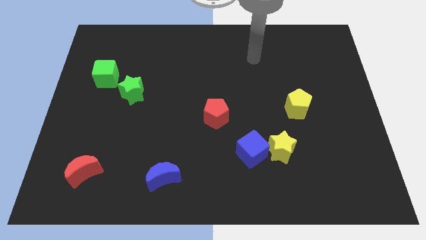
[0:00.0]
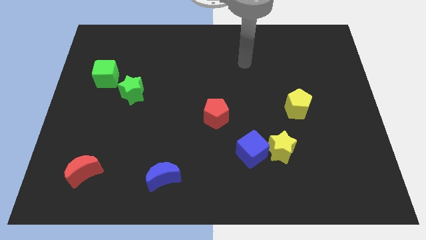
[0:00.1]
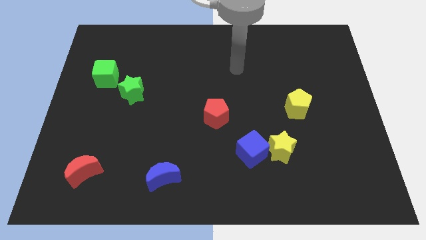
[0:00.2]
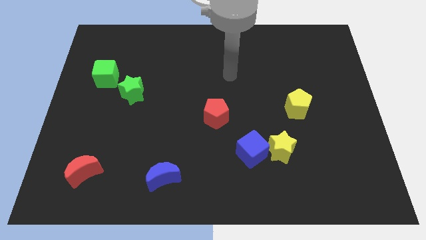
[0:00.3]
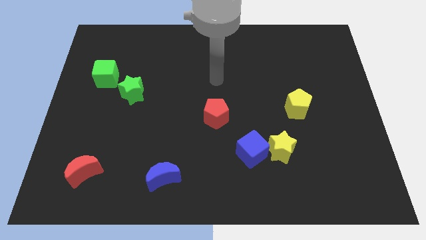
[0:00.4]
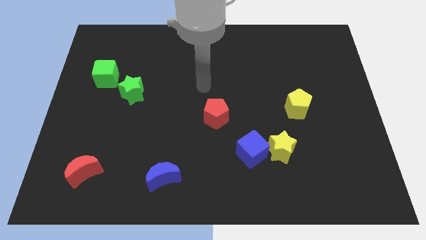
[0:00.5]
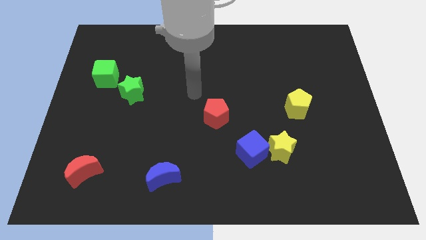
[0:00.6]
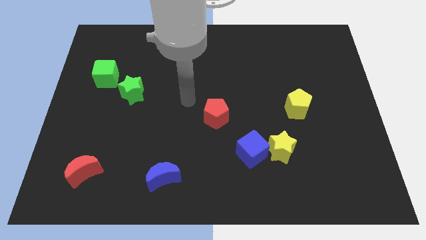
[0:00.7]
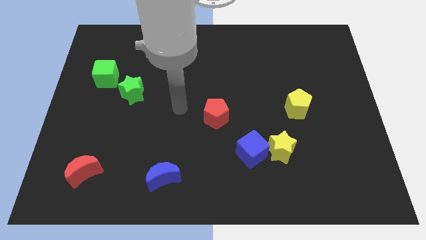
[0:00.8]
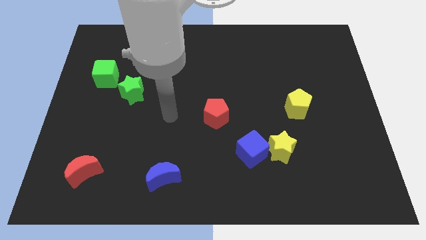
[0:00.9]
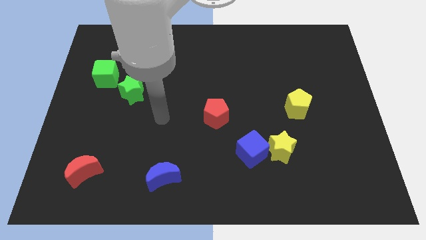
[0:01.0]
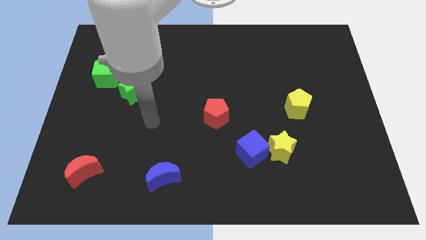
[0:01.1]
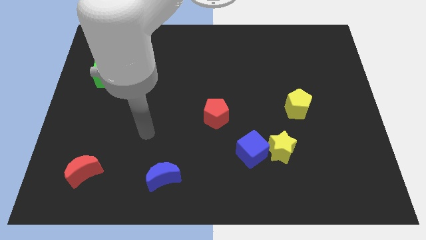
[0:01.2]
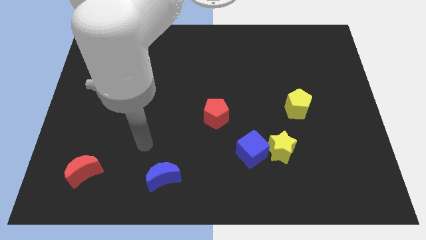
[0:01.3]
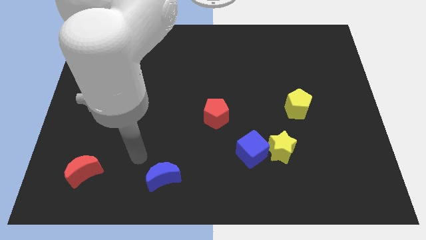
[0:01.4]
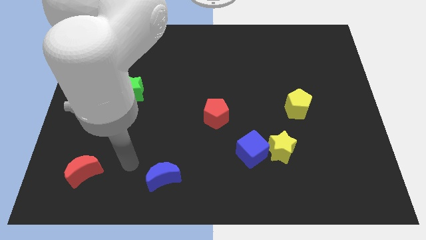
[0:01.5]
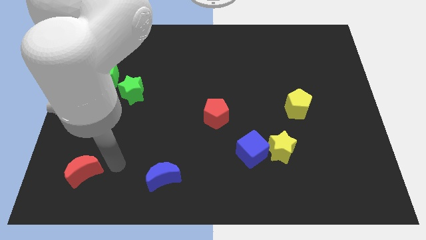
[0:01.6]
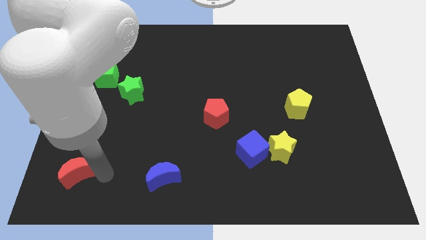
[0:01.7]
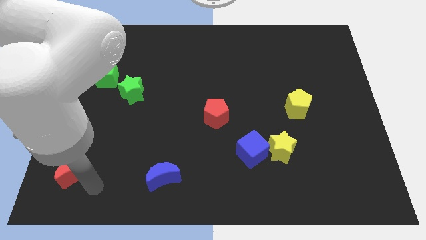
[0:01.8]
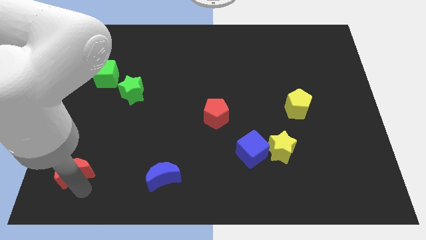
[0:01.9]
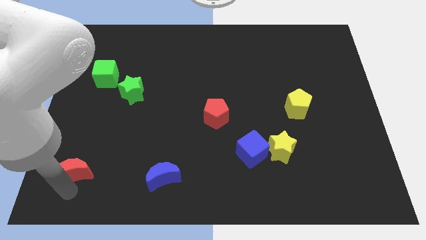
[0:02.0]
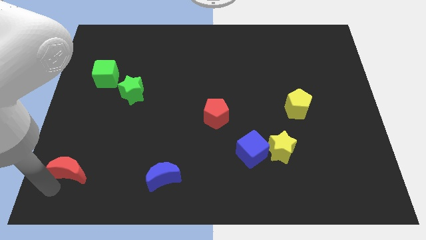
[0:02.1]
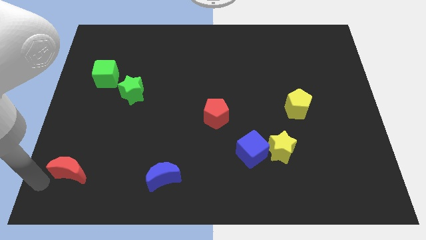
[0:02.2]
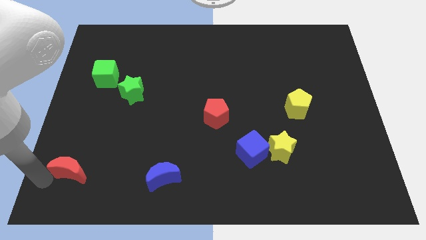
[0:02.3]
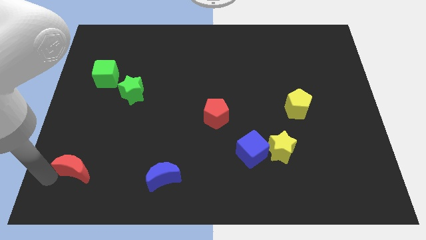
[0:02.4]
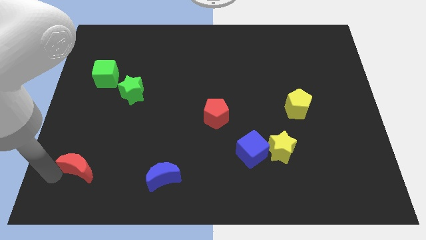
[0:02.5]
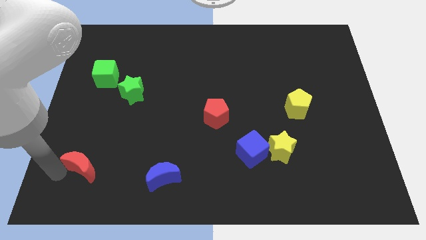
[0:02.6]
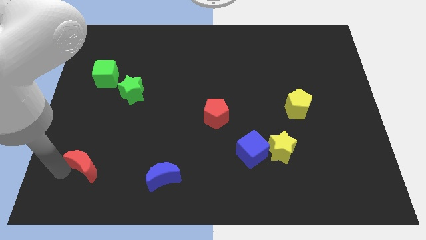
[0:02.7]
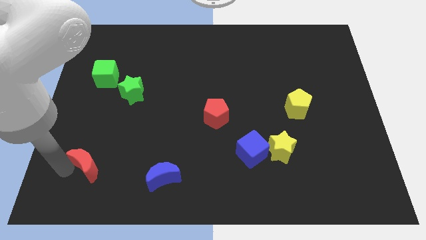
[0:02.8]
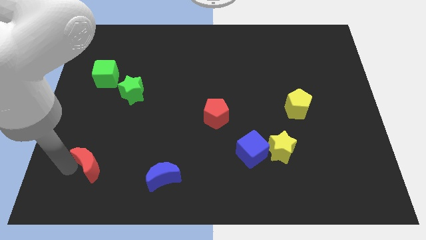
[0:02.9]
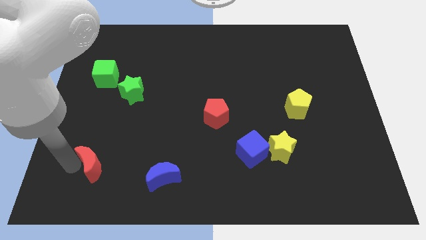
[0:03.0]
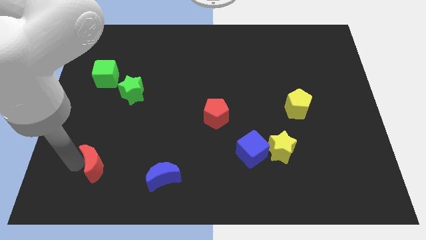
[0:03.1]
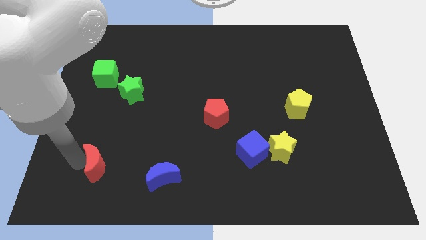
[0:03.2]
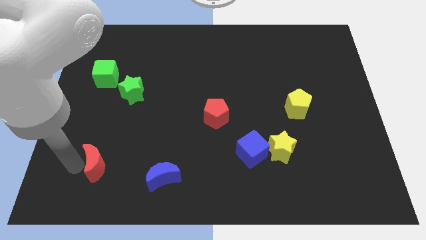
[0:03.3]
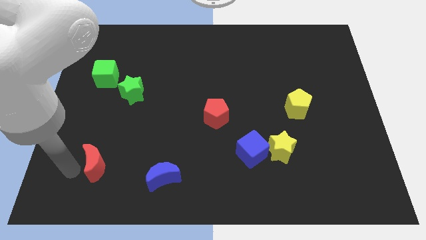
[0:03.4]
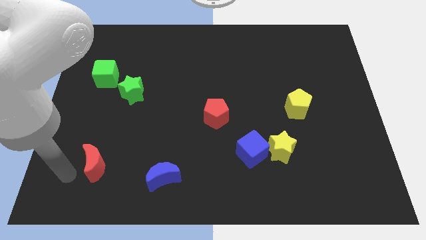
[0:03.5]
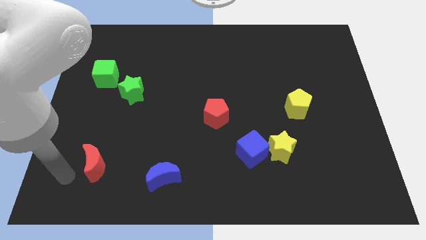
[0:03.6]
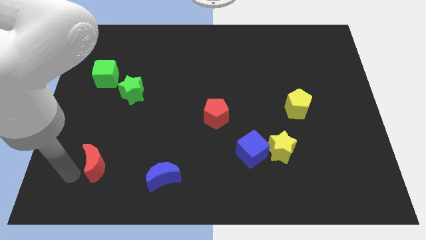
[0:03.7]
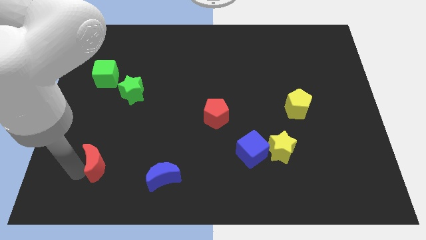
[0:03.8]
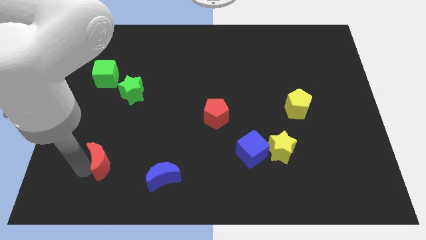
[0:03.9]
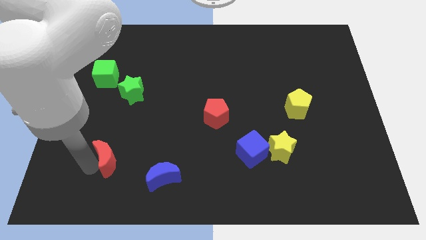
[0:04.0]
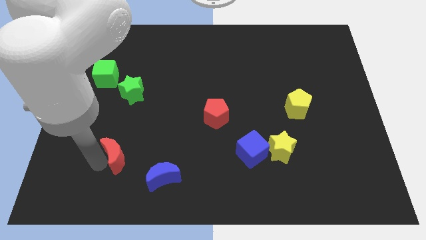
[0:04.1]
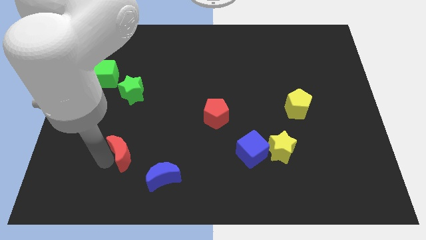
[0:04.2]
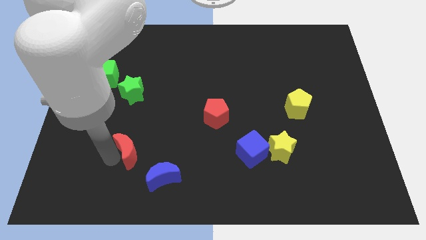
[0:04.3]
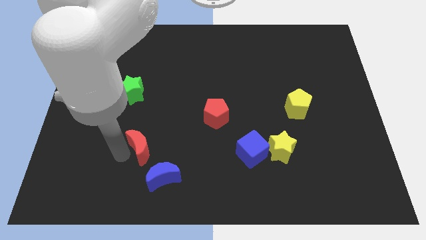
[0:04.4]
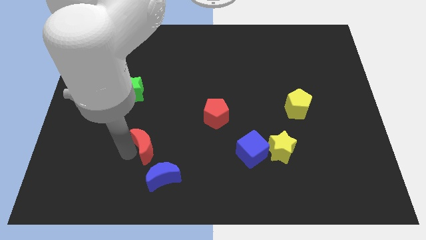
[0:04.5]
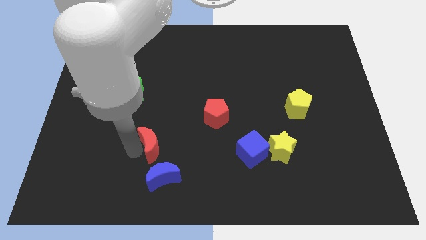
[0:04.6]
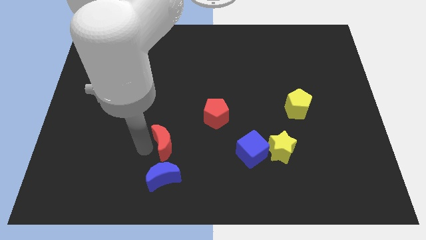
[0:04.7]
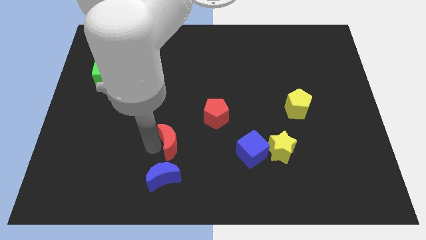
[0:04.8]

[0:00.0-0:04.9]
push the red moon to the bottom left of the red pentagon

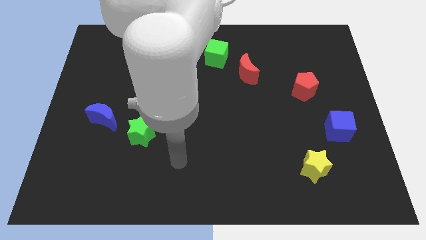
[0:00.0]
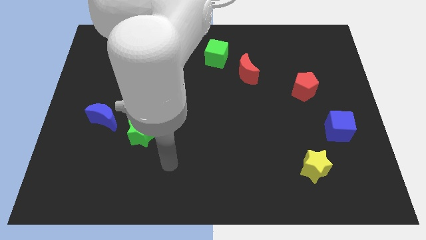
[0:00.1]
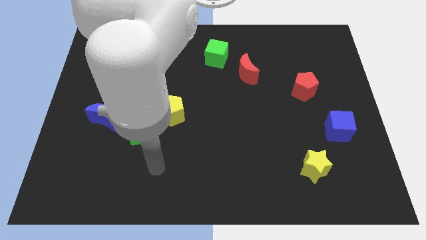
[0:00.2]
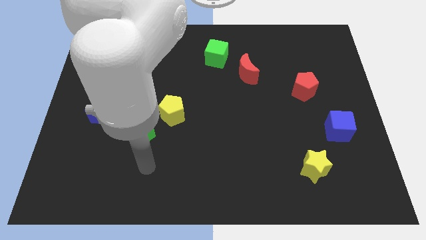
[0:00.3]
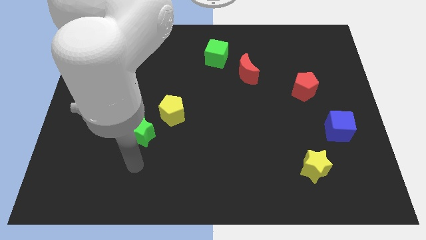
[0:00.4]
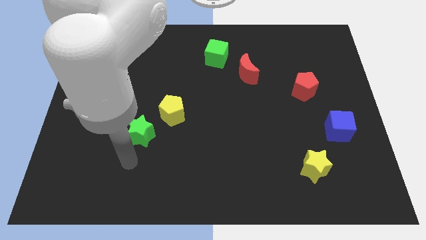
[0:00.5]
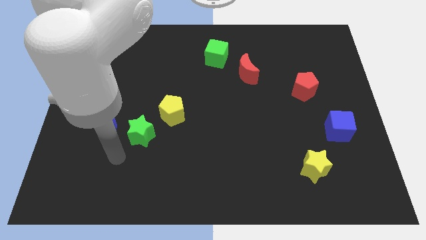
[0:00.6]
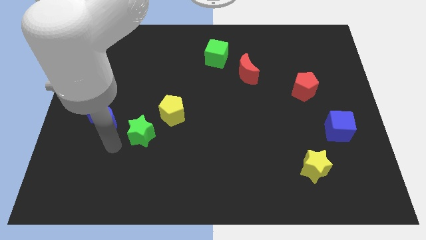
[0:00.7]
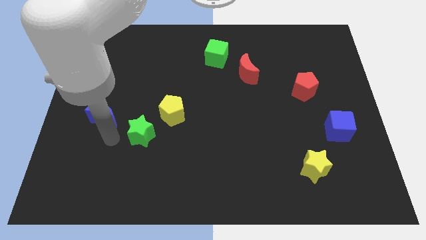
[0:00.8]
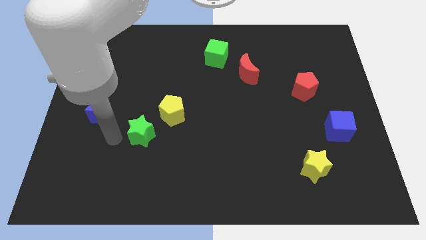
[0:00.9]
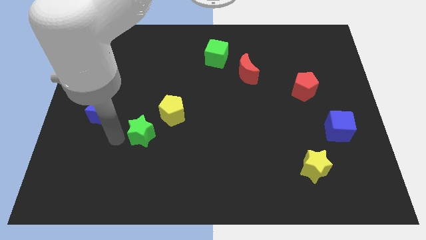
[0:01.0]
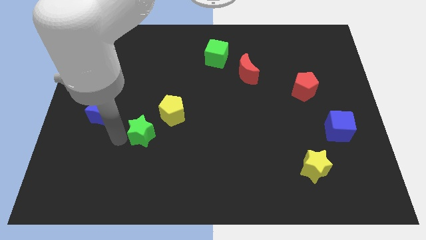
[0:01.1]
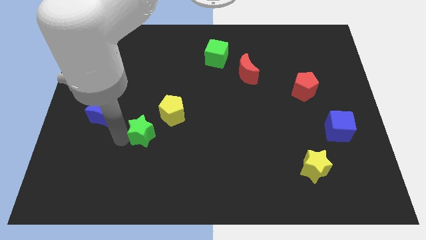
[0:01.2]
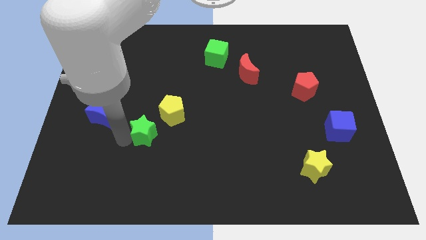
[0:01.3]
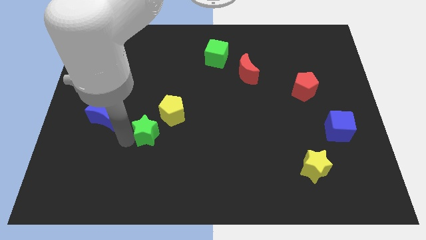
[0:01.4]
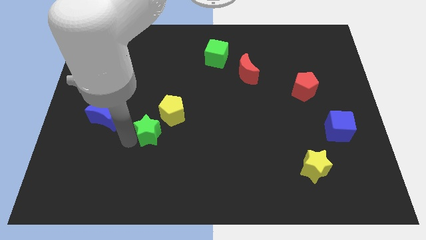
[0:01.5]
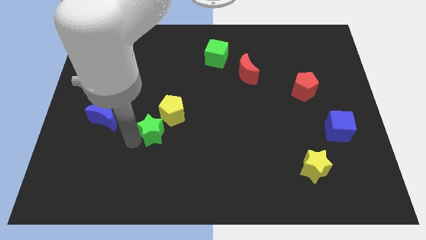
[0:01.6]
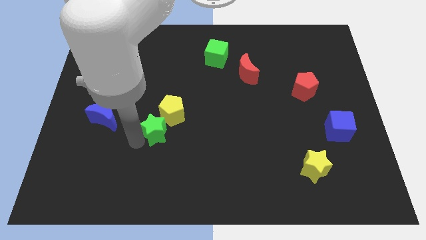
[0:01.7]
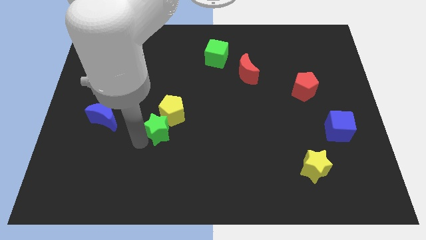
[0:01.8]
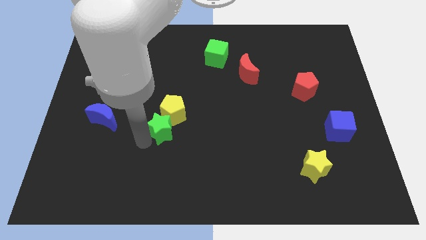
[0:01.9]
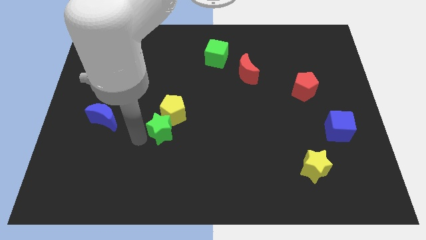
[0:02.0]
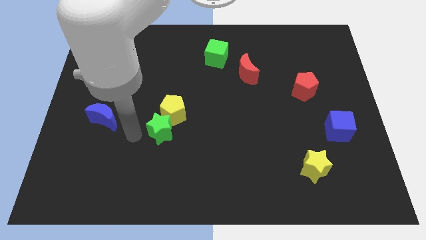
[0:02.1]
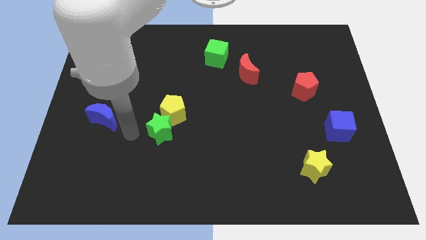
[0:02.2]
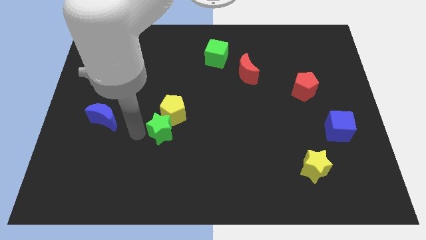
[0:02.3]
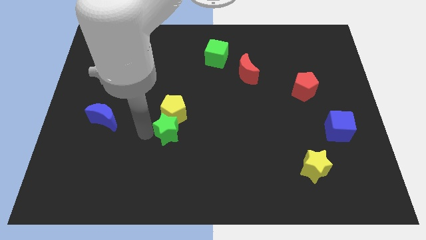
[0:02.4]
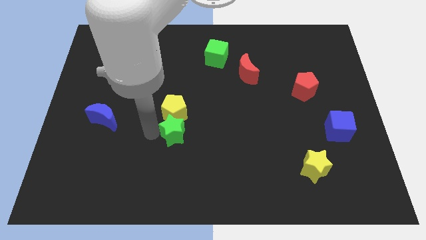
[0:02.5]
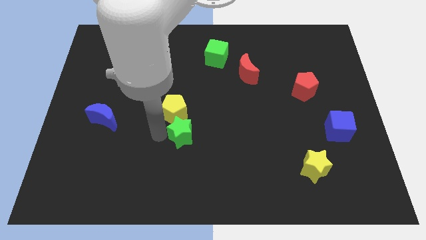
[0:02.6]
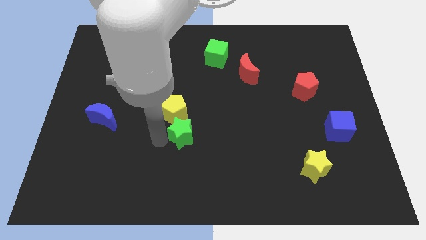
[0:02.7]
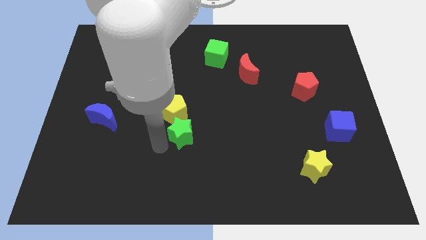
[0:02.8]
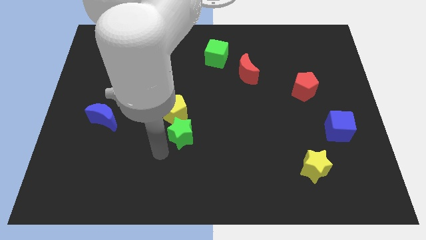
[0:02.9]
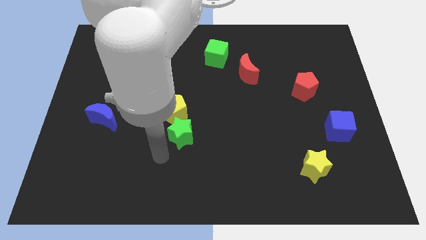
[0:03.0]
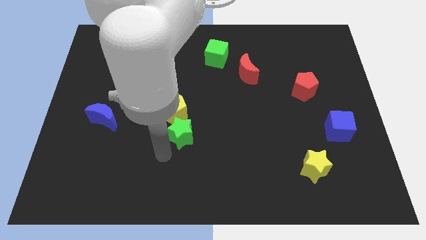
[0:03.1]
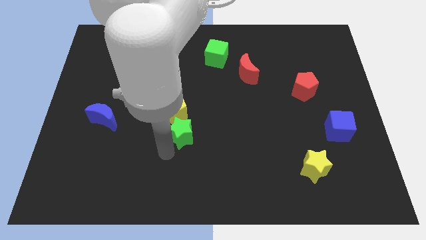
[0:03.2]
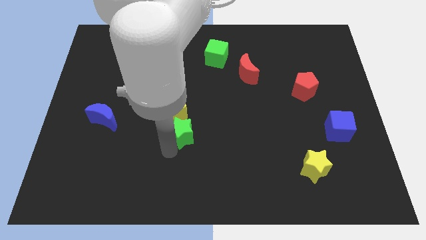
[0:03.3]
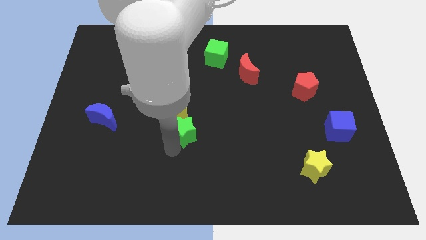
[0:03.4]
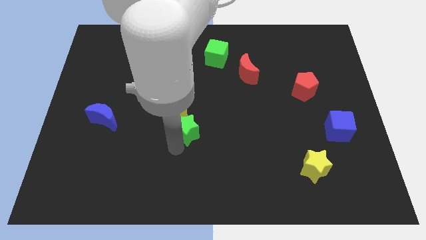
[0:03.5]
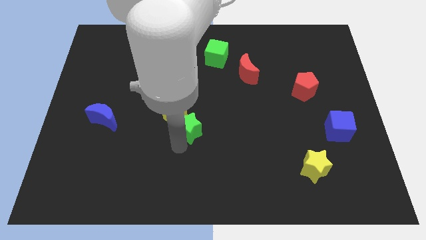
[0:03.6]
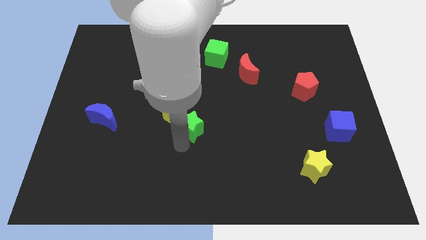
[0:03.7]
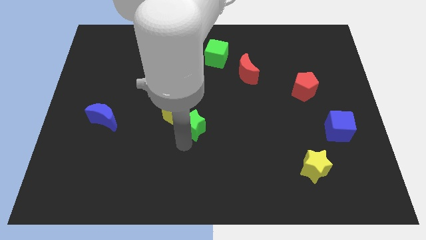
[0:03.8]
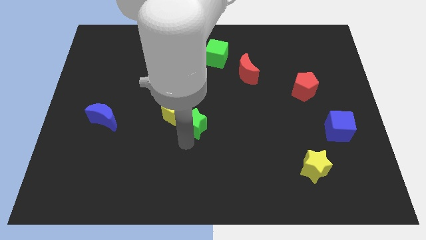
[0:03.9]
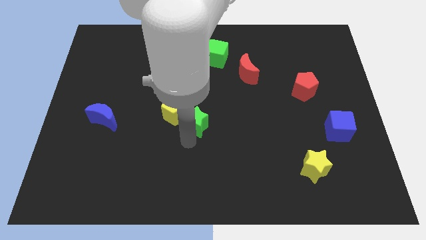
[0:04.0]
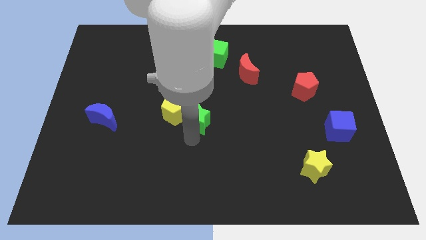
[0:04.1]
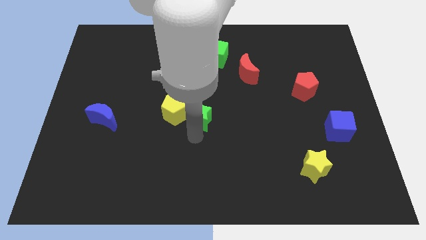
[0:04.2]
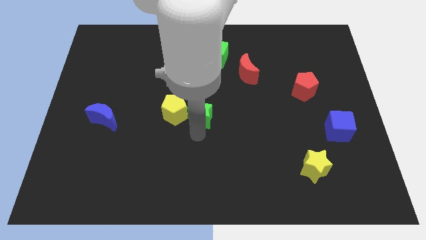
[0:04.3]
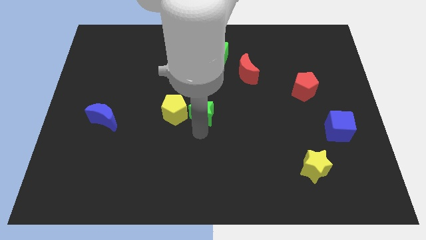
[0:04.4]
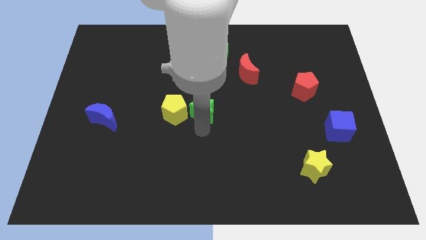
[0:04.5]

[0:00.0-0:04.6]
slide the green star diagonally up and to the right of the yellow pentagon
